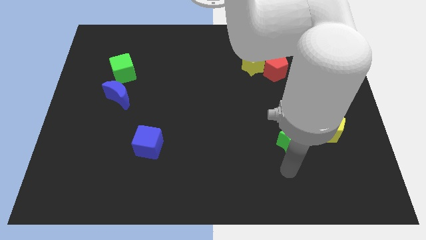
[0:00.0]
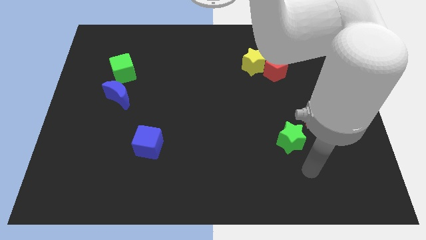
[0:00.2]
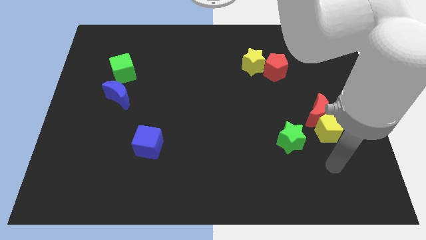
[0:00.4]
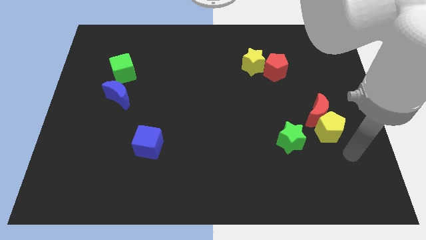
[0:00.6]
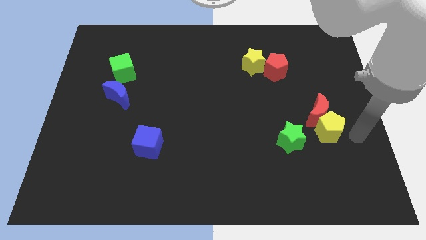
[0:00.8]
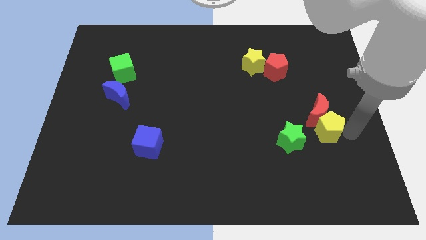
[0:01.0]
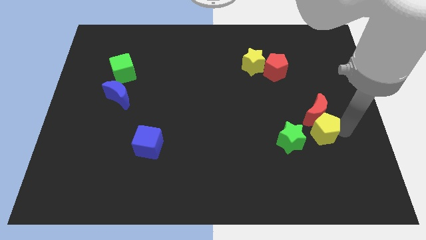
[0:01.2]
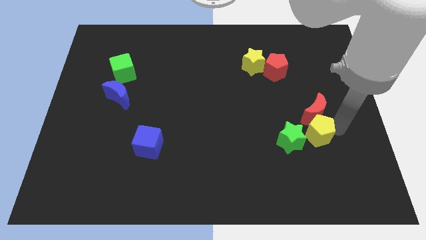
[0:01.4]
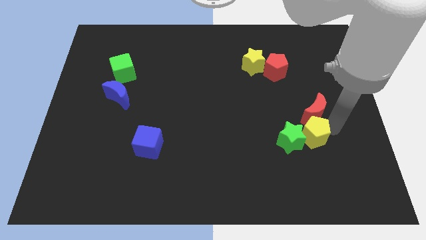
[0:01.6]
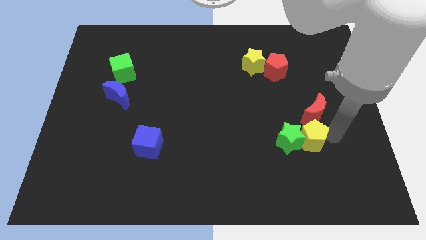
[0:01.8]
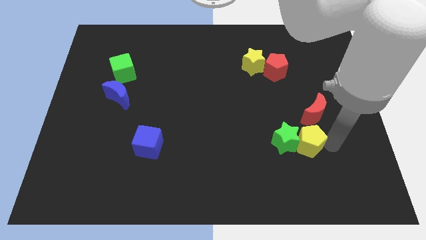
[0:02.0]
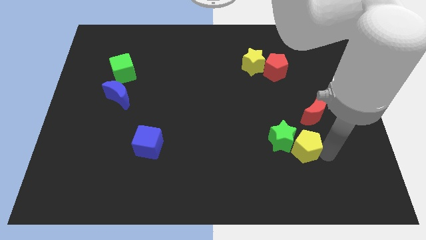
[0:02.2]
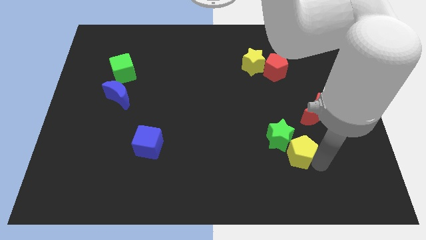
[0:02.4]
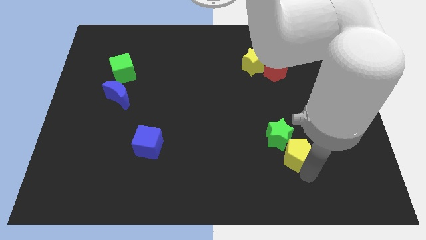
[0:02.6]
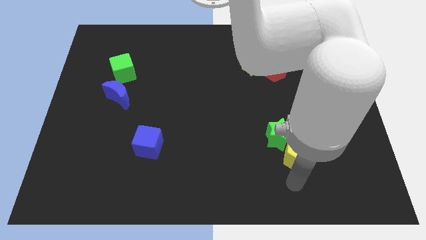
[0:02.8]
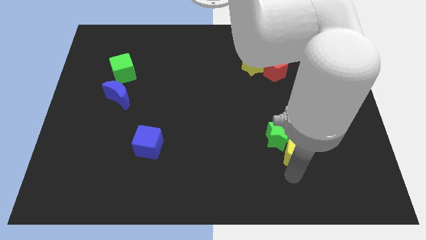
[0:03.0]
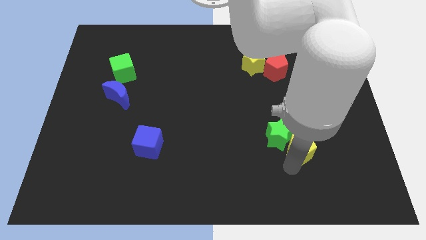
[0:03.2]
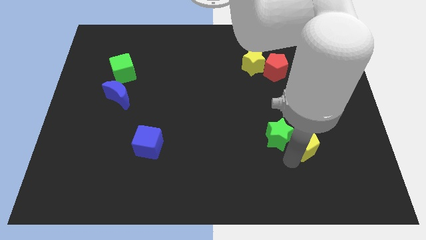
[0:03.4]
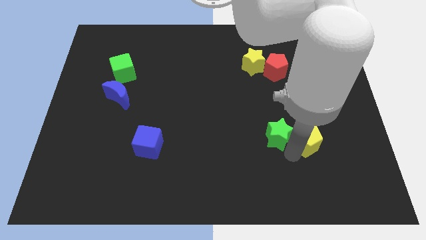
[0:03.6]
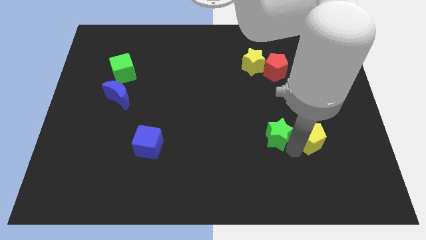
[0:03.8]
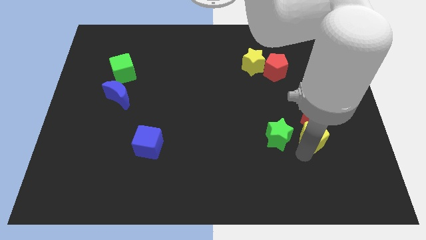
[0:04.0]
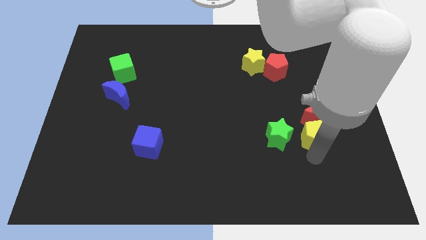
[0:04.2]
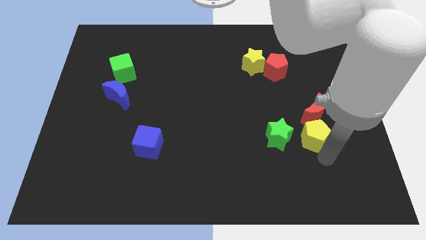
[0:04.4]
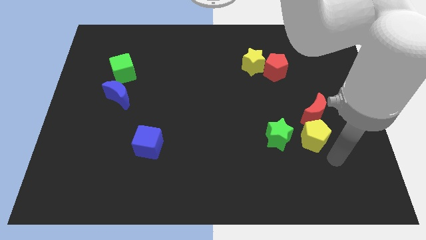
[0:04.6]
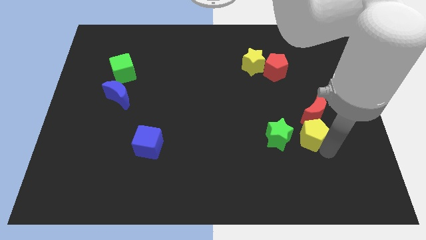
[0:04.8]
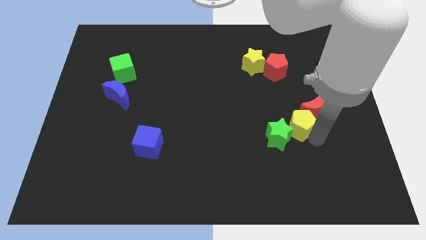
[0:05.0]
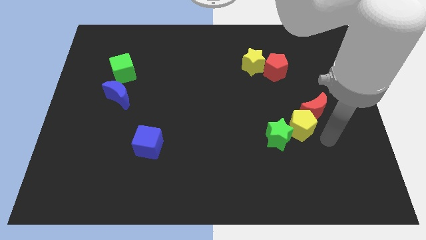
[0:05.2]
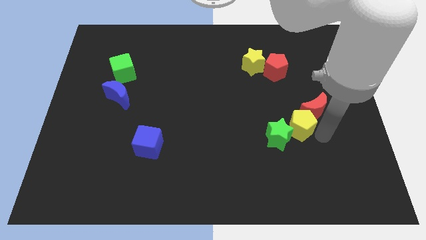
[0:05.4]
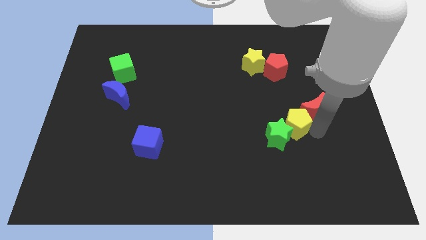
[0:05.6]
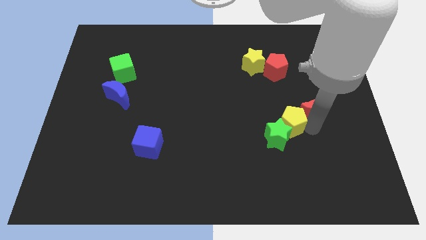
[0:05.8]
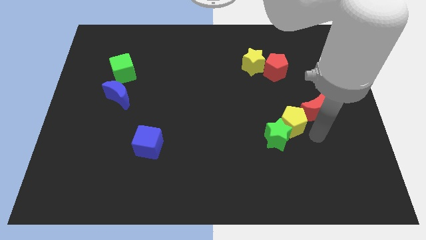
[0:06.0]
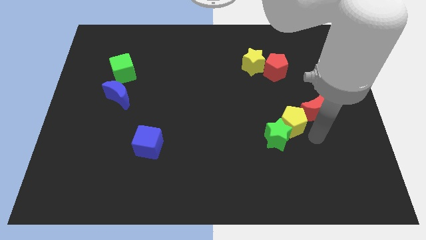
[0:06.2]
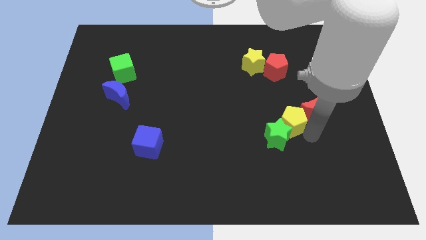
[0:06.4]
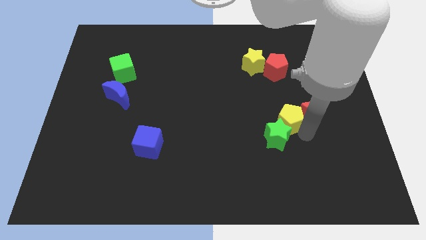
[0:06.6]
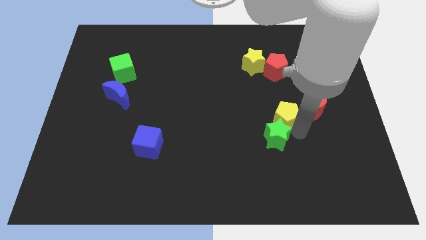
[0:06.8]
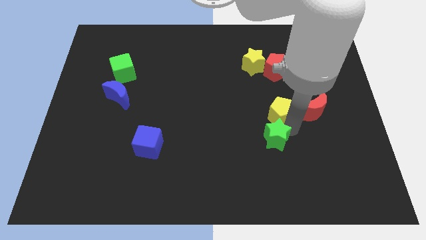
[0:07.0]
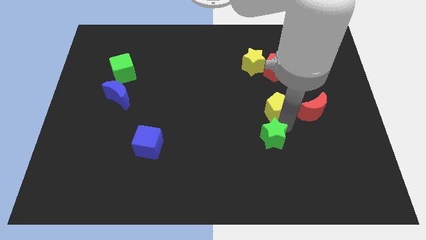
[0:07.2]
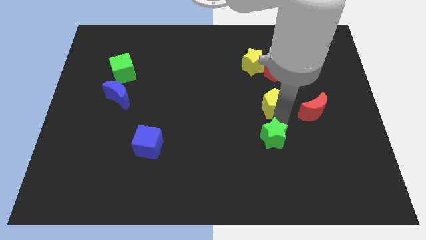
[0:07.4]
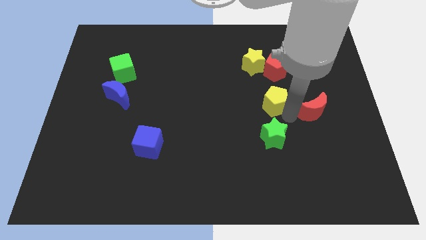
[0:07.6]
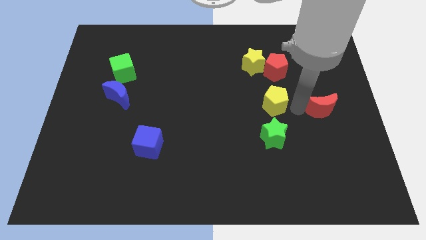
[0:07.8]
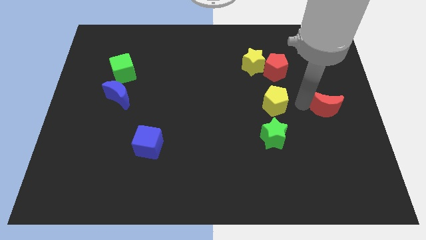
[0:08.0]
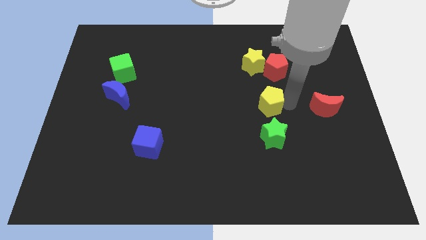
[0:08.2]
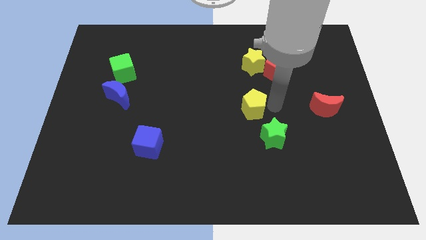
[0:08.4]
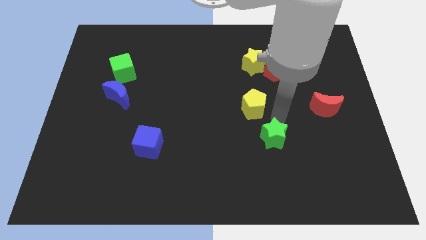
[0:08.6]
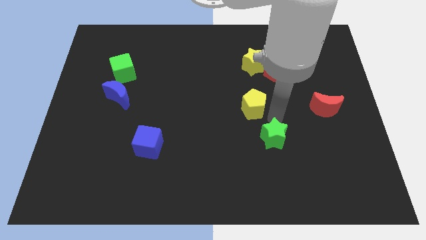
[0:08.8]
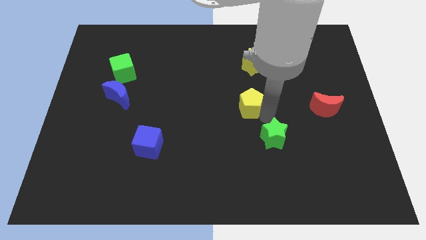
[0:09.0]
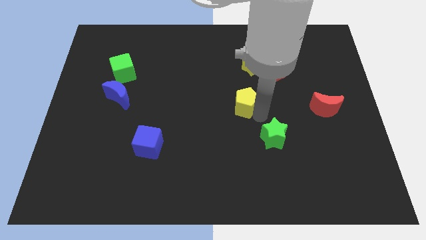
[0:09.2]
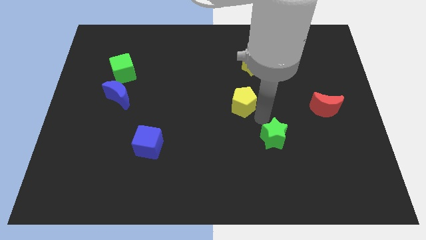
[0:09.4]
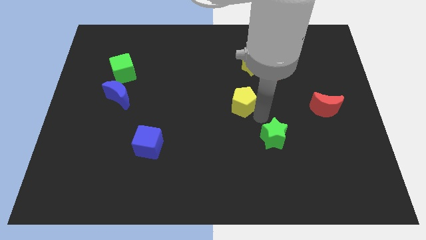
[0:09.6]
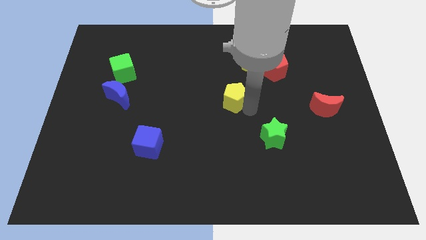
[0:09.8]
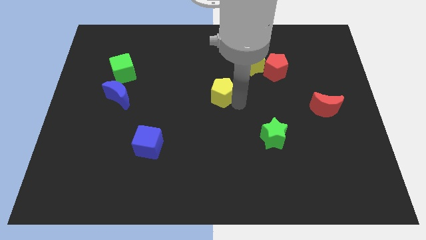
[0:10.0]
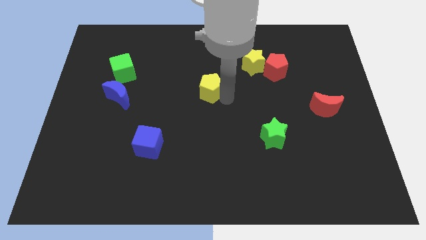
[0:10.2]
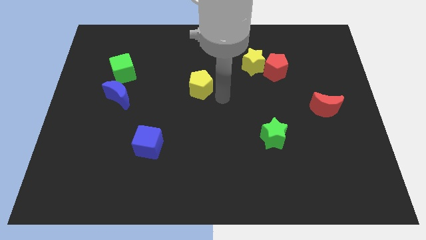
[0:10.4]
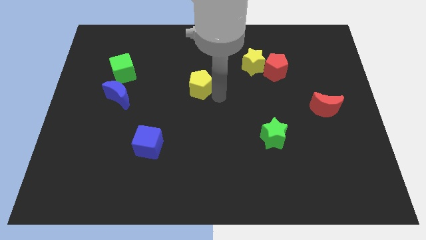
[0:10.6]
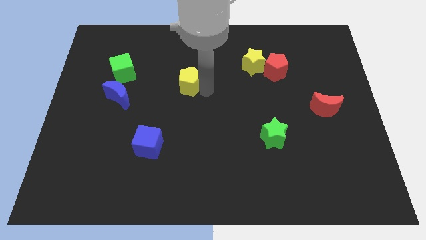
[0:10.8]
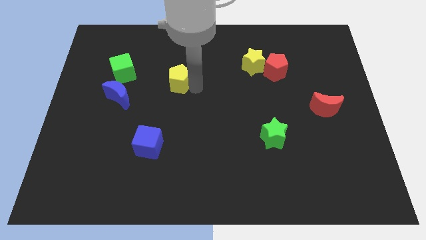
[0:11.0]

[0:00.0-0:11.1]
move the yellow pentagon just right of the green cube

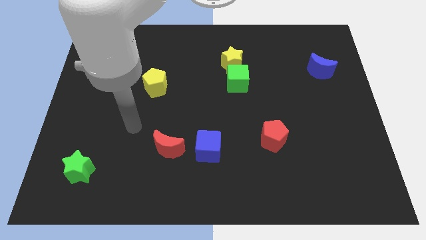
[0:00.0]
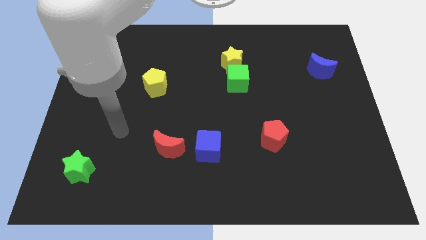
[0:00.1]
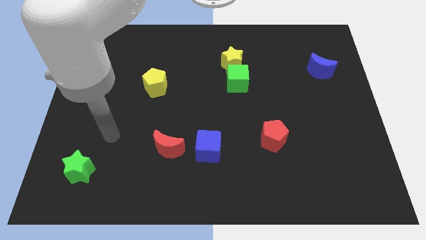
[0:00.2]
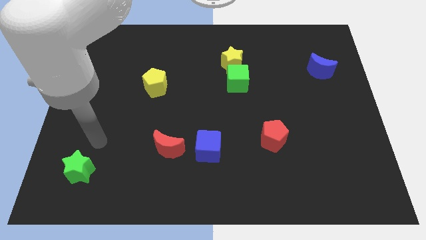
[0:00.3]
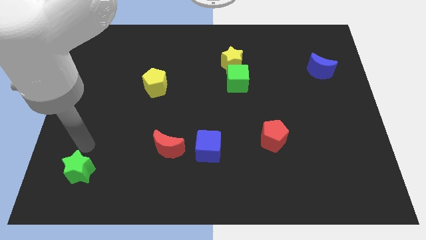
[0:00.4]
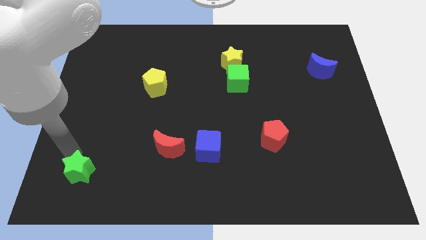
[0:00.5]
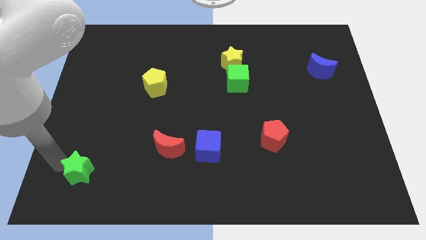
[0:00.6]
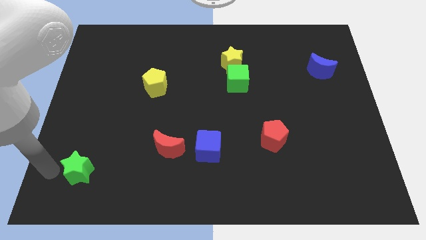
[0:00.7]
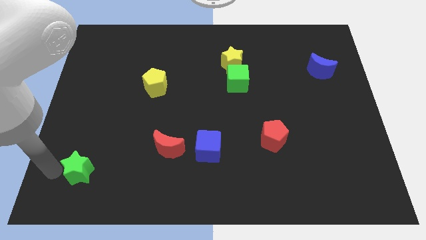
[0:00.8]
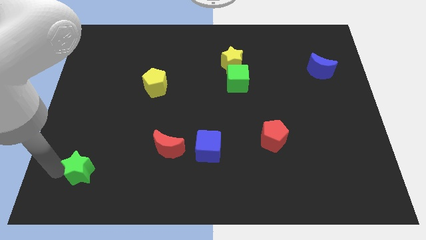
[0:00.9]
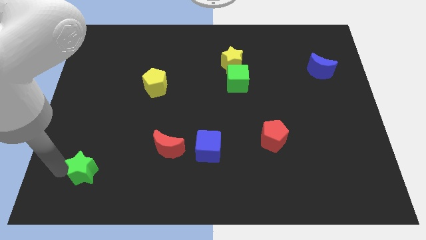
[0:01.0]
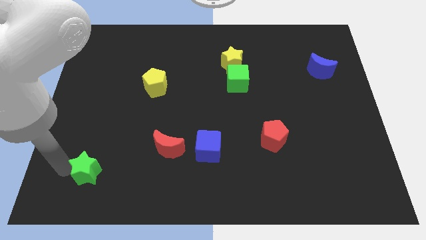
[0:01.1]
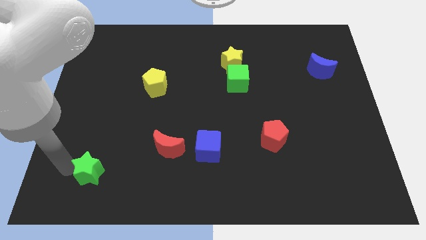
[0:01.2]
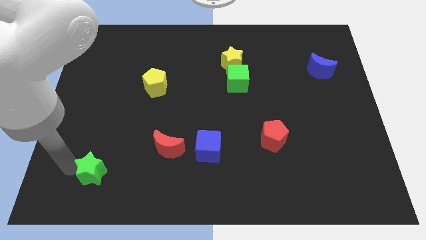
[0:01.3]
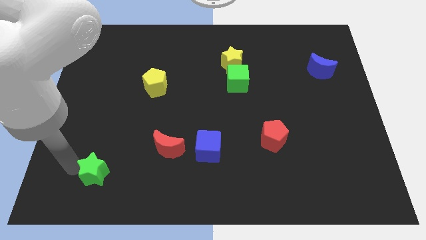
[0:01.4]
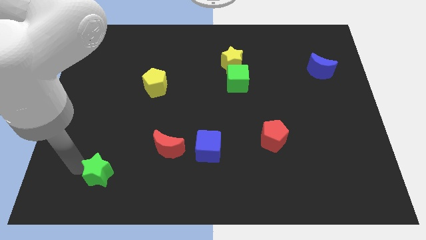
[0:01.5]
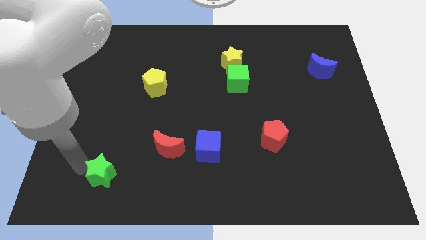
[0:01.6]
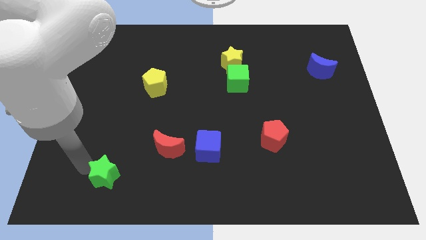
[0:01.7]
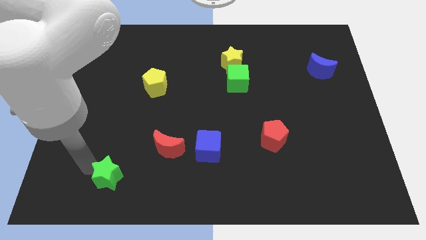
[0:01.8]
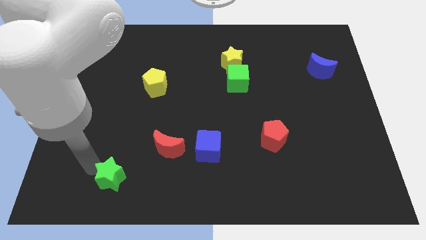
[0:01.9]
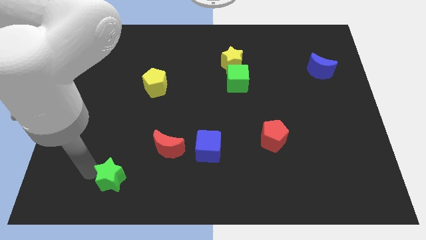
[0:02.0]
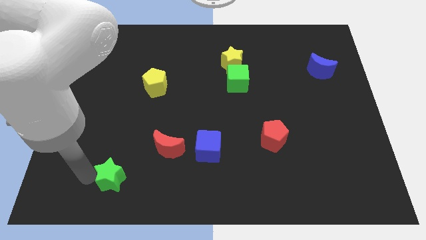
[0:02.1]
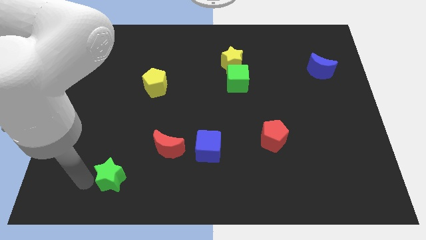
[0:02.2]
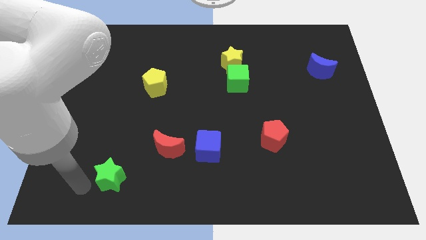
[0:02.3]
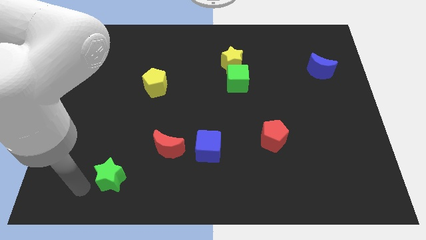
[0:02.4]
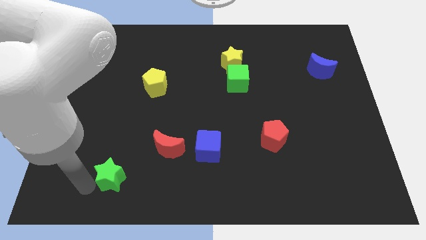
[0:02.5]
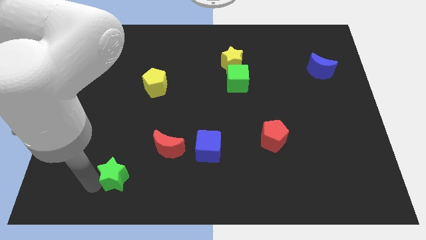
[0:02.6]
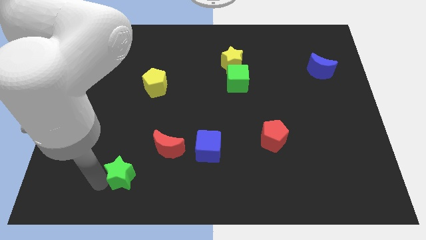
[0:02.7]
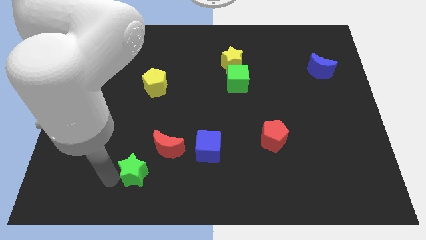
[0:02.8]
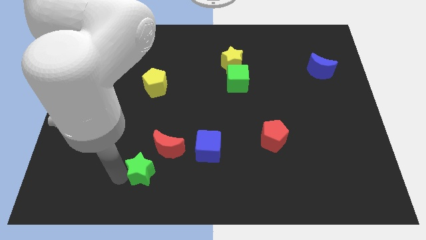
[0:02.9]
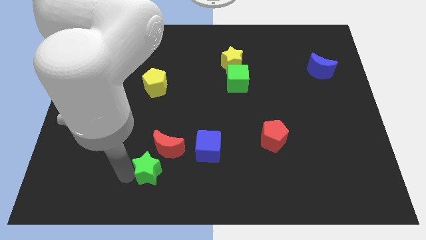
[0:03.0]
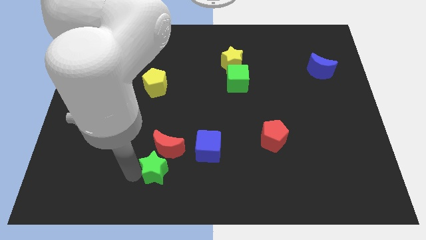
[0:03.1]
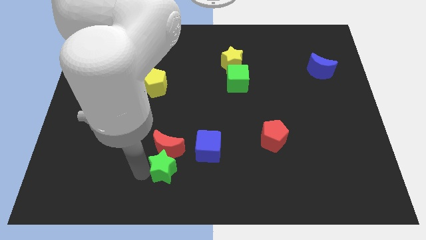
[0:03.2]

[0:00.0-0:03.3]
slide the green star to the bottom right side of the red moon
